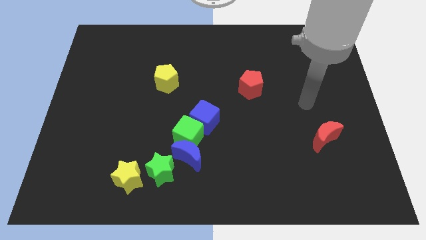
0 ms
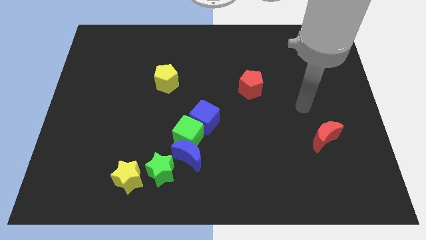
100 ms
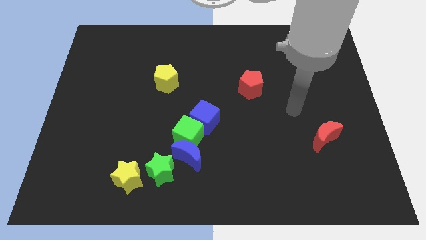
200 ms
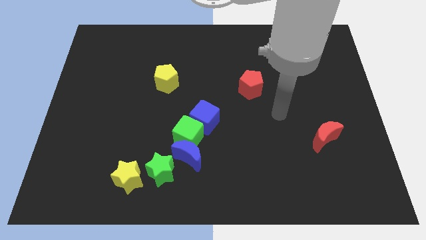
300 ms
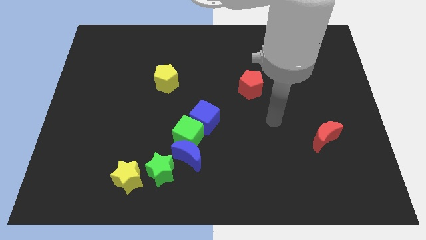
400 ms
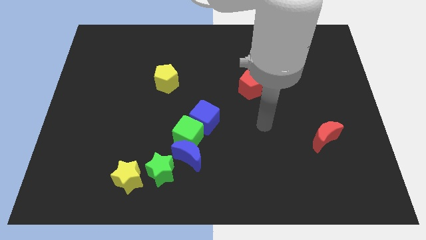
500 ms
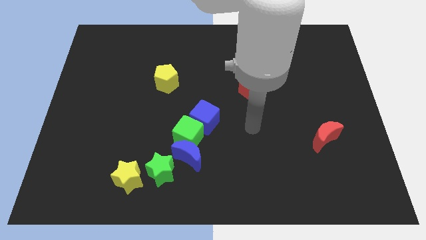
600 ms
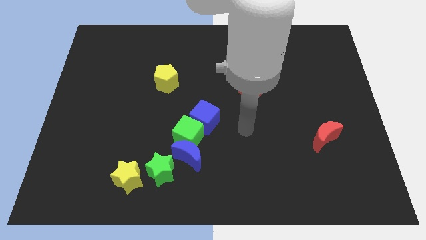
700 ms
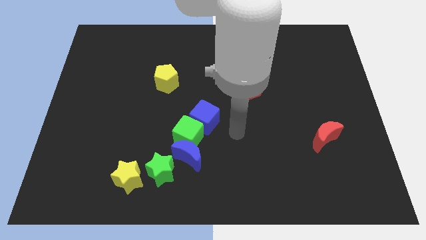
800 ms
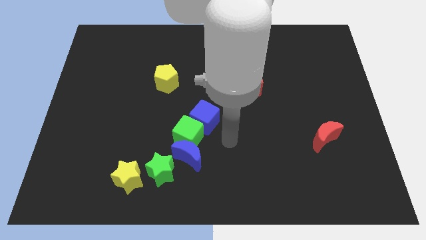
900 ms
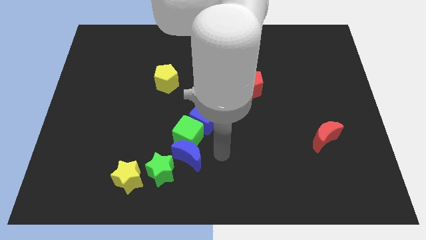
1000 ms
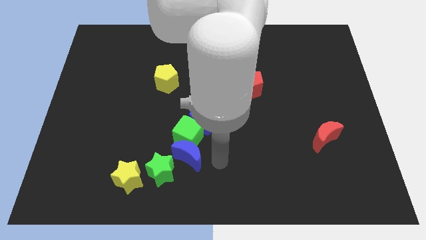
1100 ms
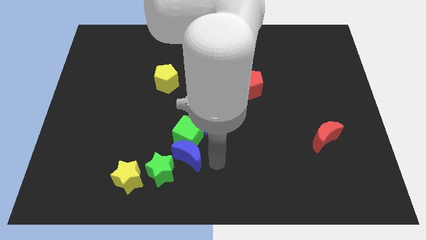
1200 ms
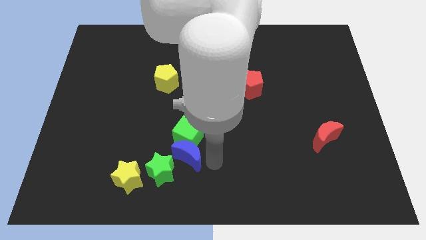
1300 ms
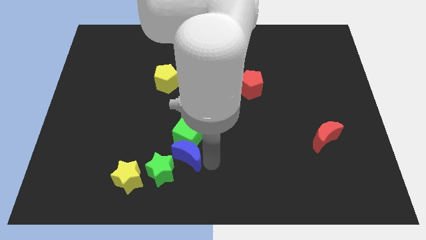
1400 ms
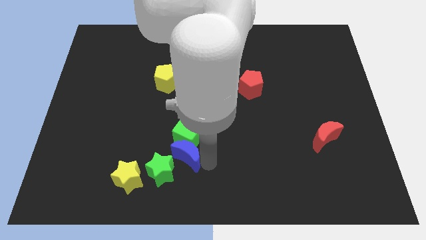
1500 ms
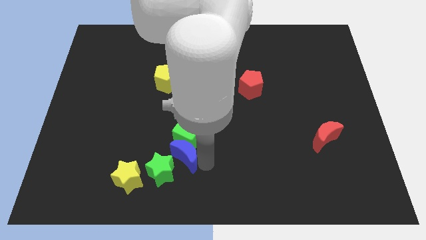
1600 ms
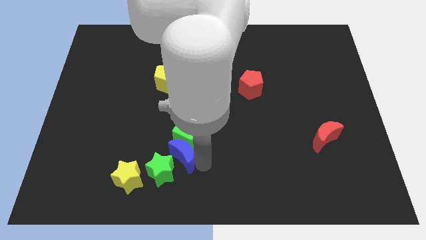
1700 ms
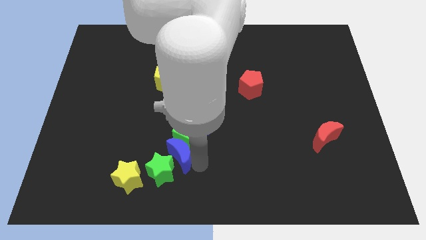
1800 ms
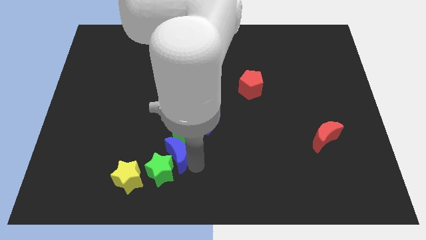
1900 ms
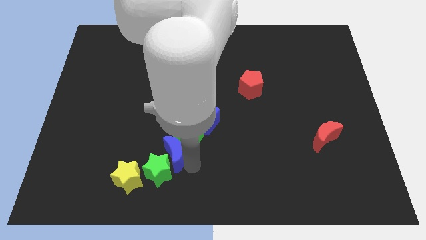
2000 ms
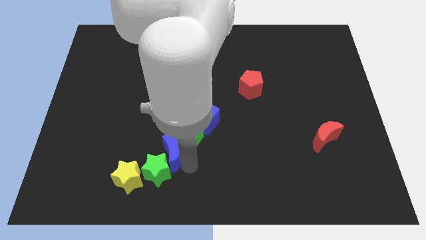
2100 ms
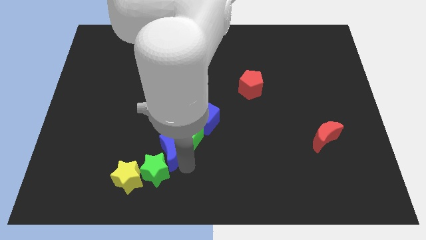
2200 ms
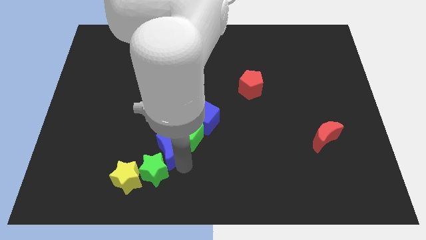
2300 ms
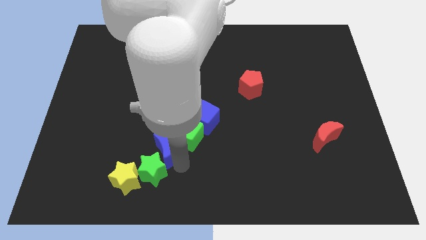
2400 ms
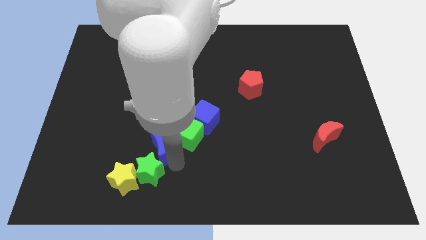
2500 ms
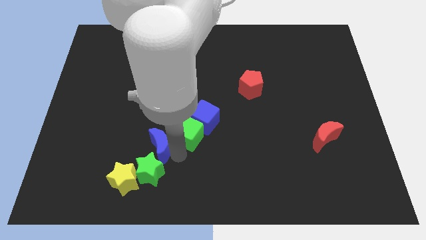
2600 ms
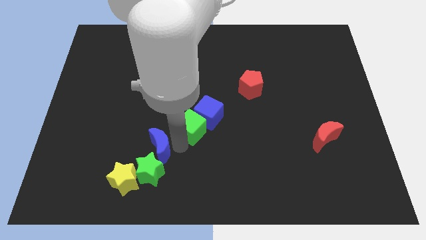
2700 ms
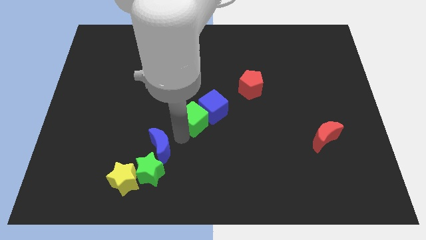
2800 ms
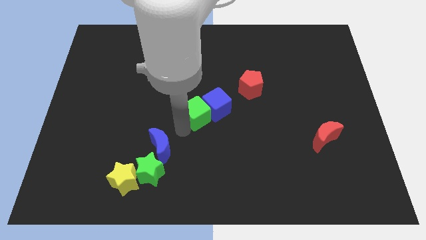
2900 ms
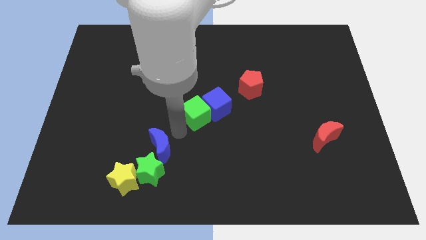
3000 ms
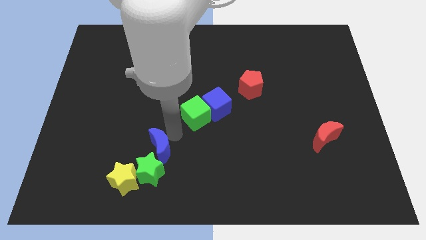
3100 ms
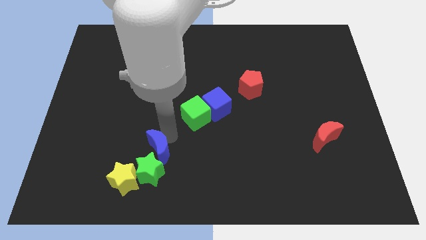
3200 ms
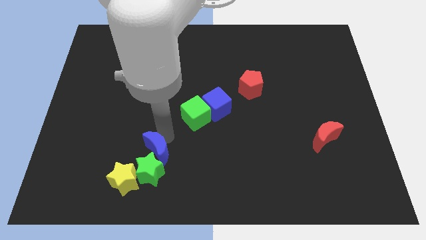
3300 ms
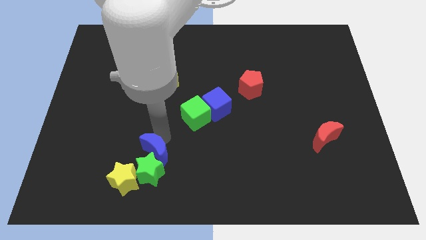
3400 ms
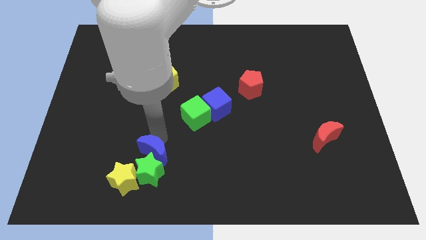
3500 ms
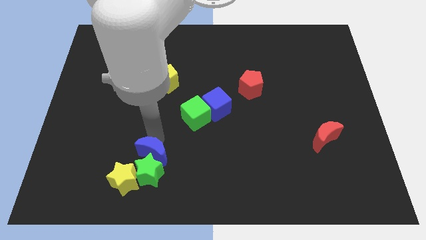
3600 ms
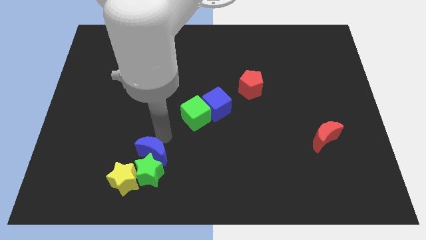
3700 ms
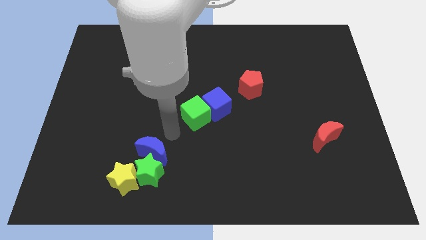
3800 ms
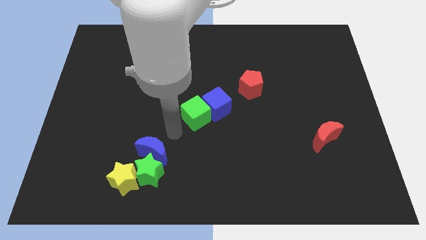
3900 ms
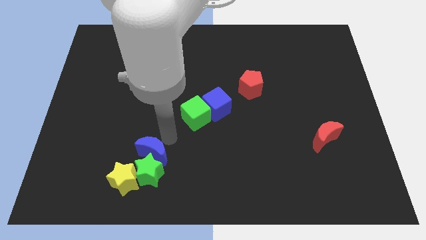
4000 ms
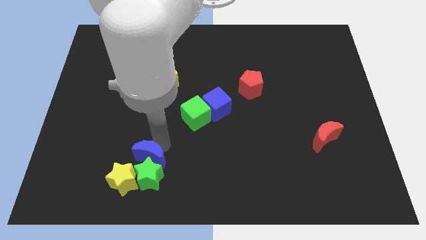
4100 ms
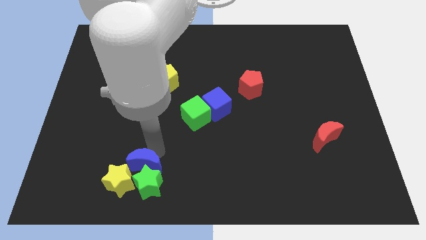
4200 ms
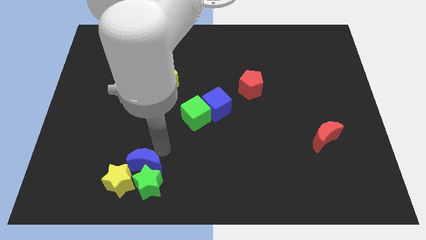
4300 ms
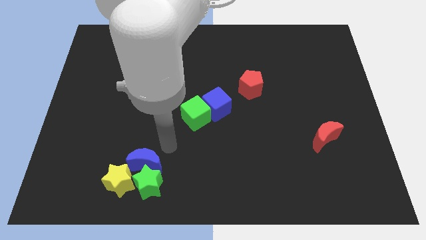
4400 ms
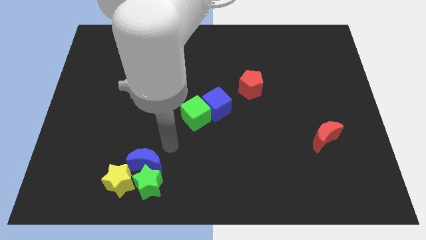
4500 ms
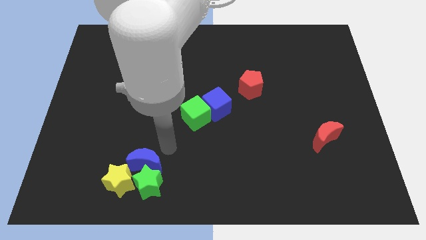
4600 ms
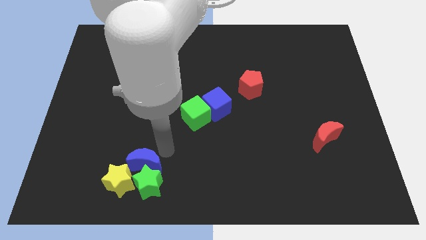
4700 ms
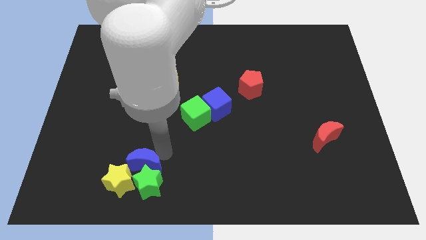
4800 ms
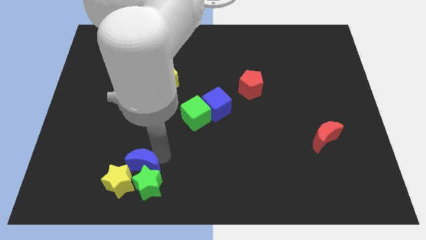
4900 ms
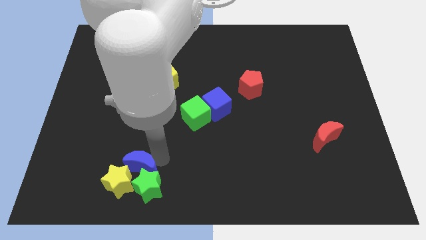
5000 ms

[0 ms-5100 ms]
push the blue moon next to the yellow star

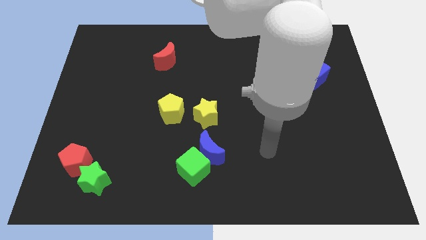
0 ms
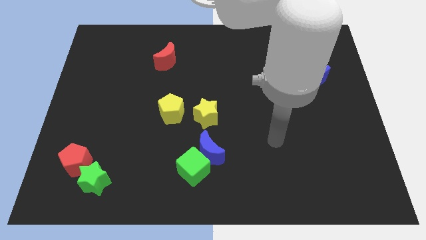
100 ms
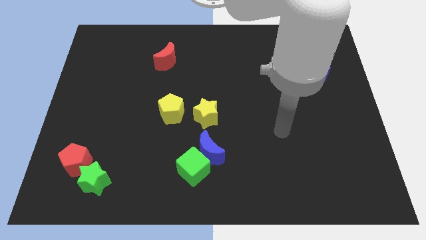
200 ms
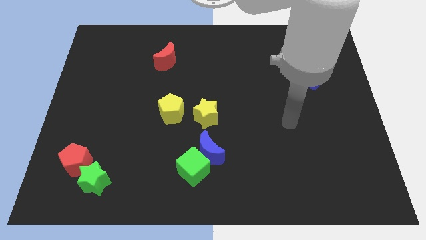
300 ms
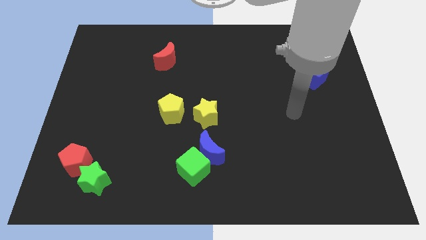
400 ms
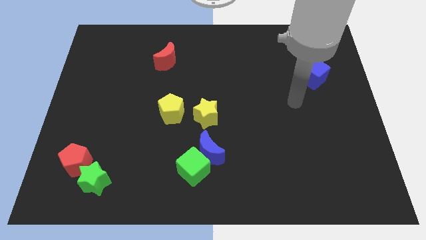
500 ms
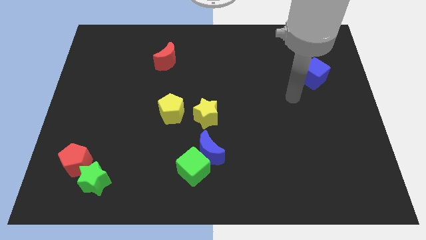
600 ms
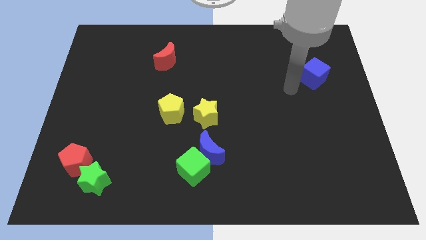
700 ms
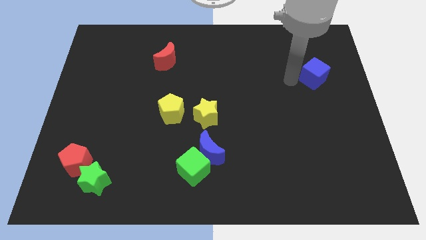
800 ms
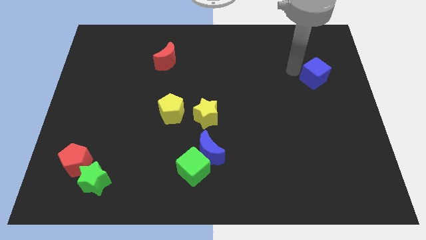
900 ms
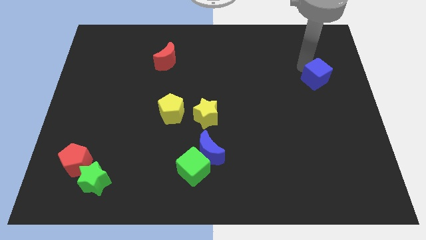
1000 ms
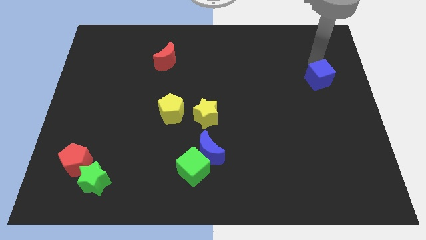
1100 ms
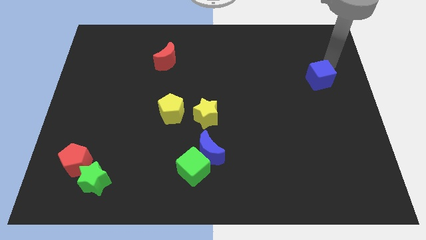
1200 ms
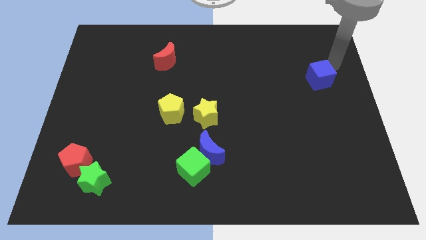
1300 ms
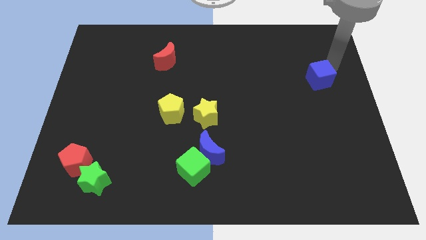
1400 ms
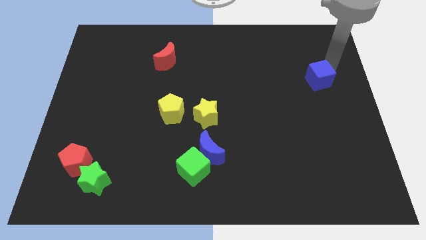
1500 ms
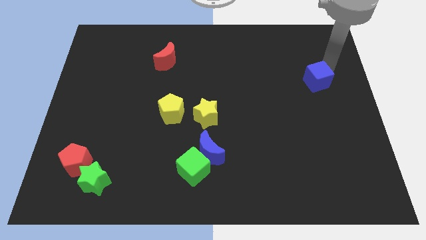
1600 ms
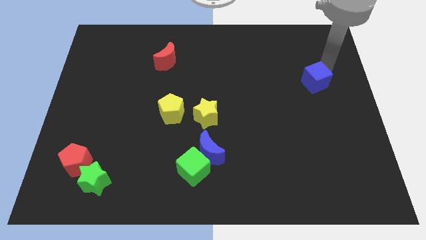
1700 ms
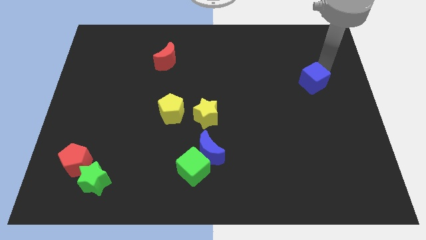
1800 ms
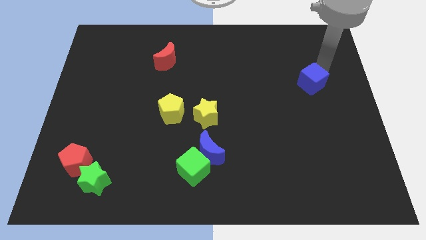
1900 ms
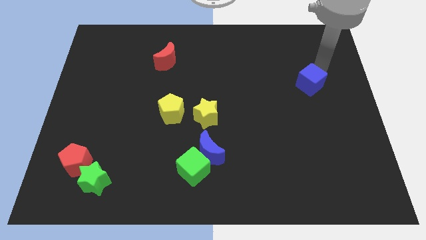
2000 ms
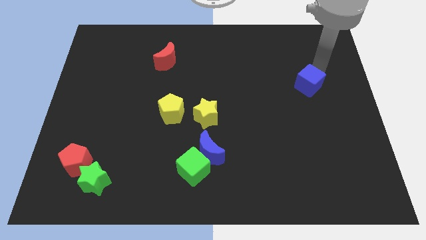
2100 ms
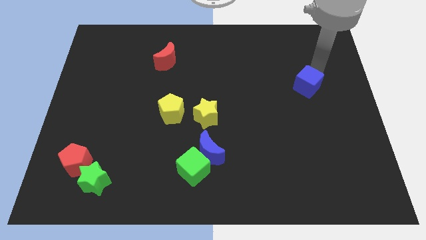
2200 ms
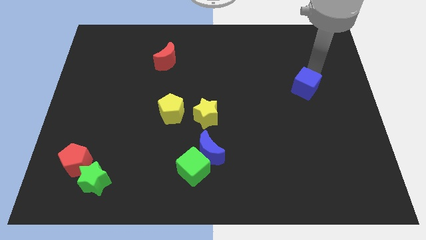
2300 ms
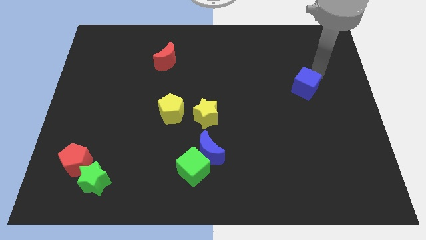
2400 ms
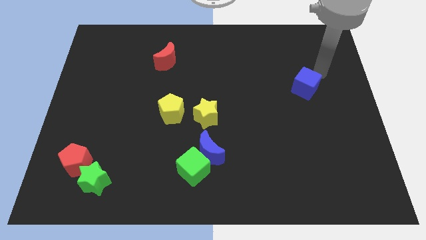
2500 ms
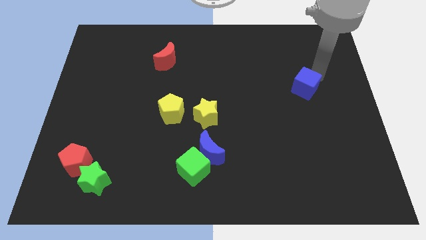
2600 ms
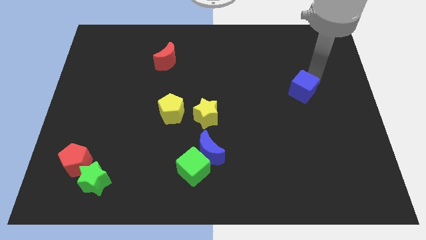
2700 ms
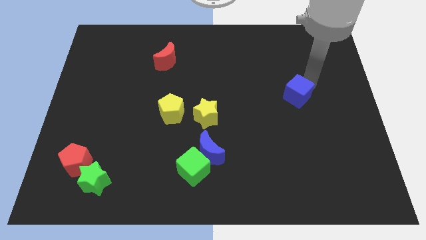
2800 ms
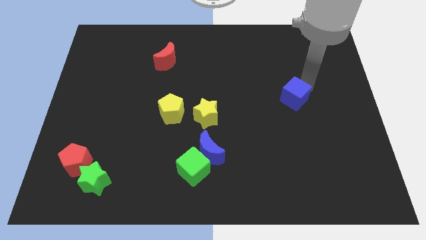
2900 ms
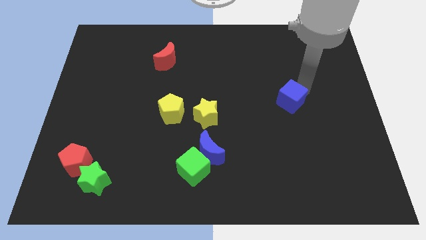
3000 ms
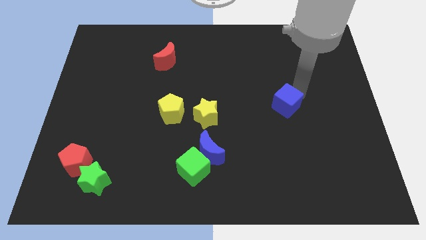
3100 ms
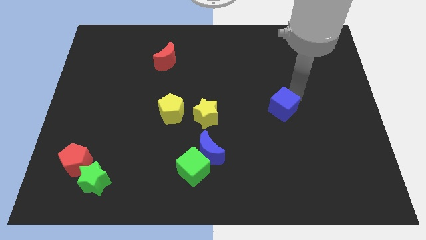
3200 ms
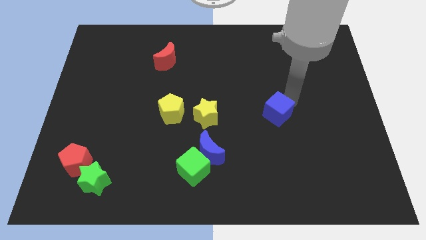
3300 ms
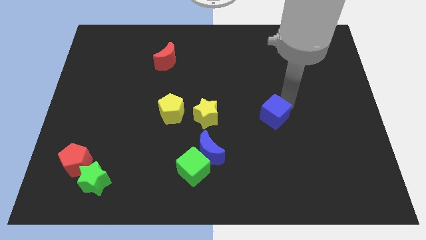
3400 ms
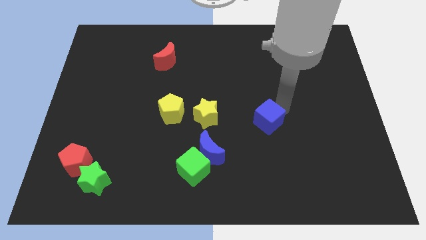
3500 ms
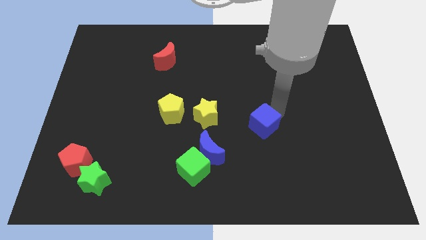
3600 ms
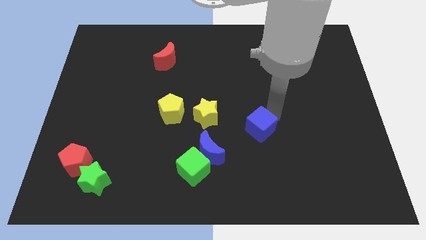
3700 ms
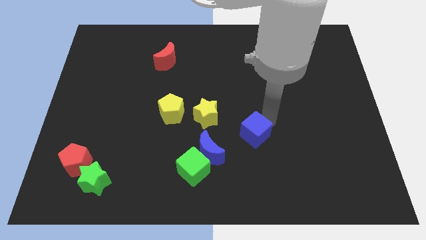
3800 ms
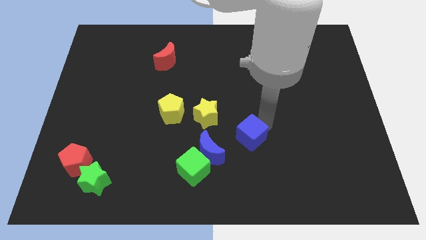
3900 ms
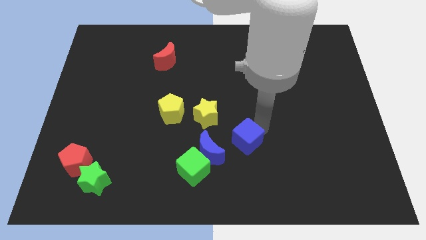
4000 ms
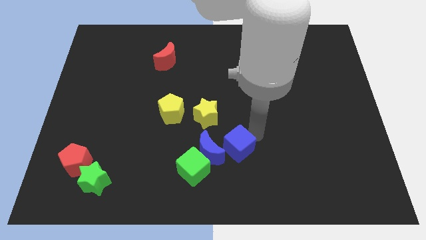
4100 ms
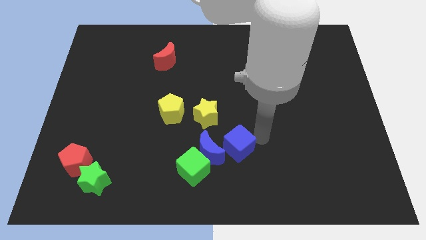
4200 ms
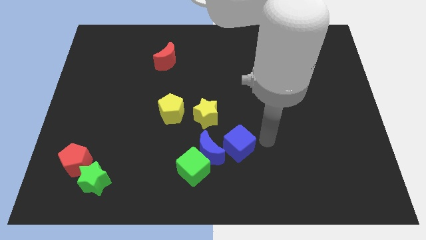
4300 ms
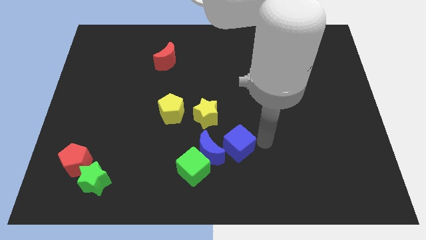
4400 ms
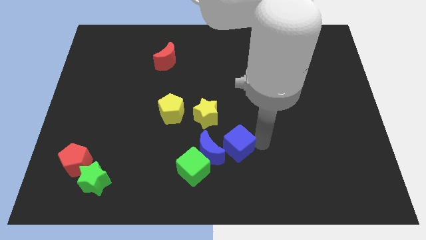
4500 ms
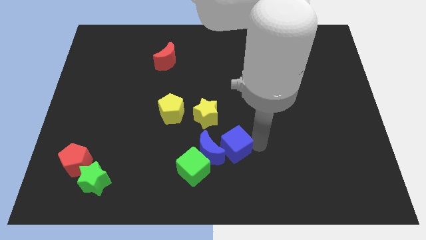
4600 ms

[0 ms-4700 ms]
slide the blue cube towards the blue moon
